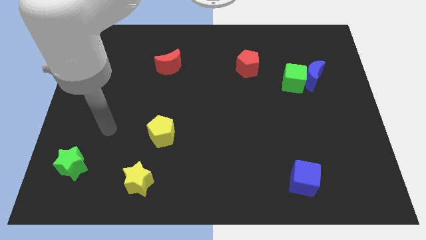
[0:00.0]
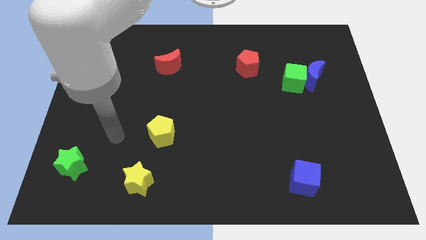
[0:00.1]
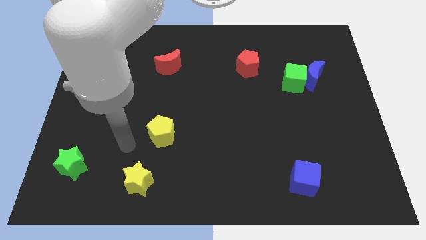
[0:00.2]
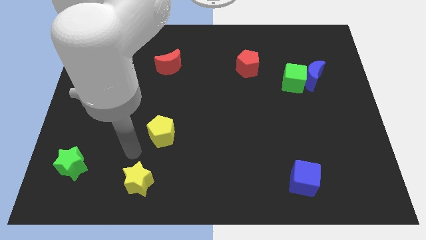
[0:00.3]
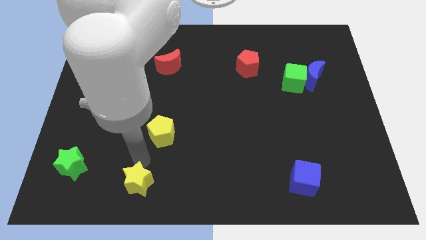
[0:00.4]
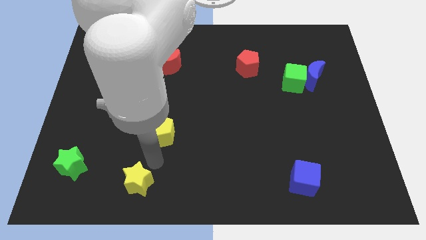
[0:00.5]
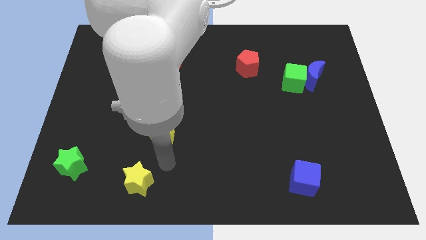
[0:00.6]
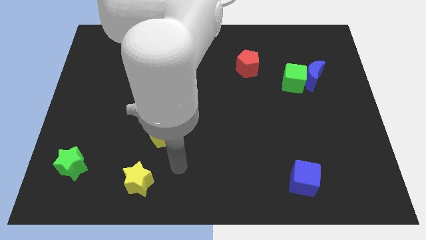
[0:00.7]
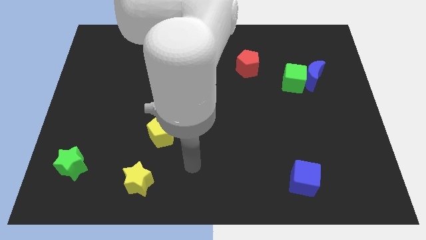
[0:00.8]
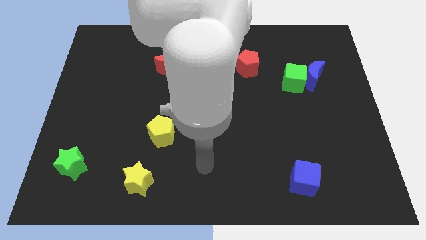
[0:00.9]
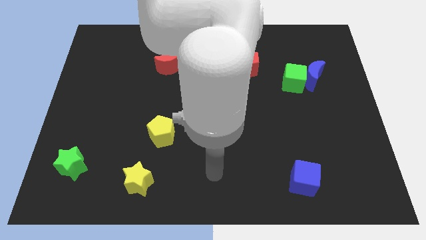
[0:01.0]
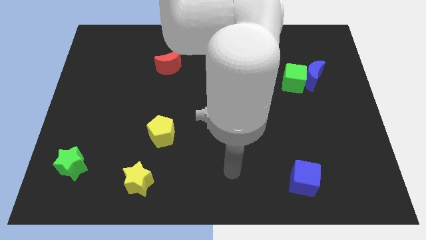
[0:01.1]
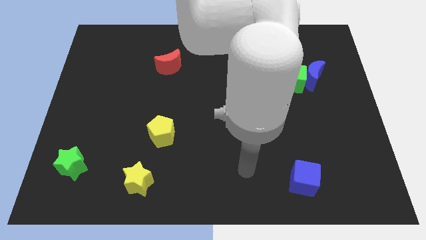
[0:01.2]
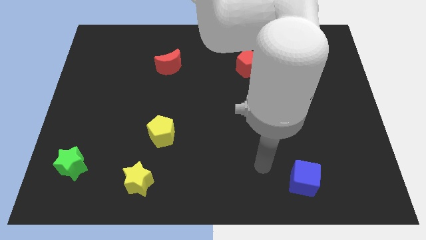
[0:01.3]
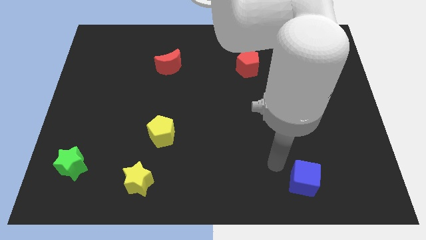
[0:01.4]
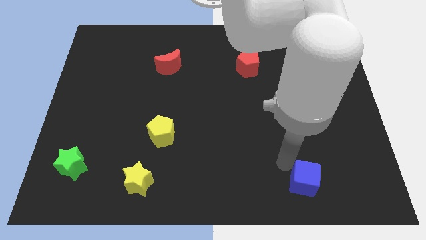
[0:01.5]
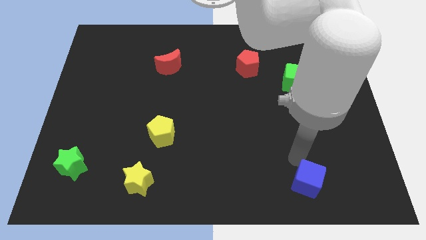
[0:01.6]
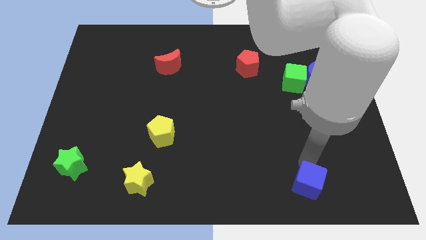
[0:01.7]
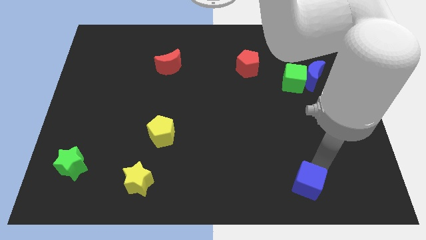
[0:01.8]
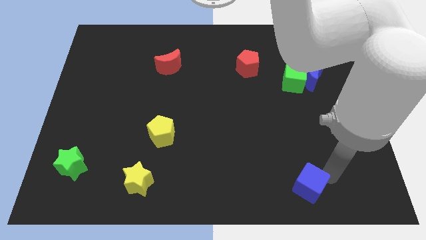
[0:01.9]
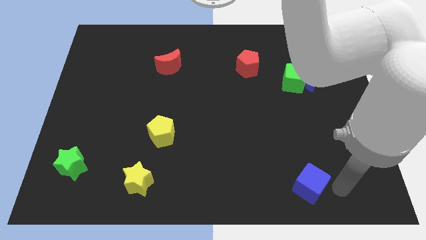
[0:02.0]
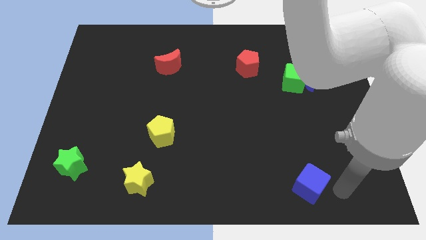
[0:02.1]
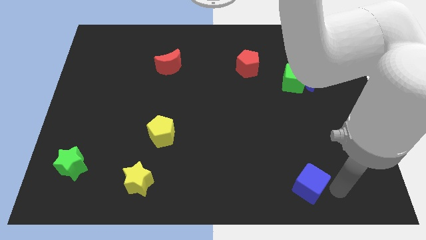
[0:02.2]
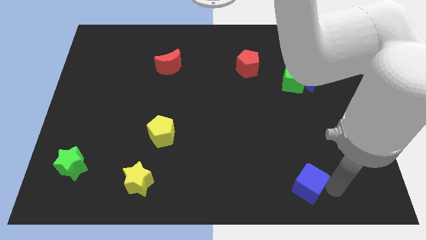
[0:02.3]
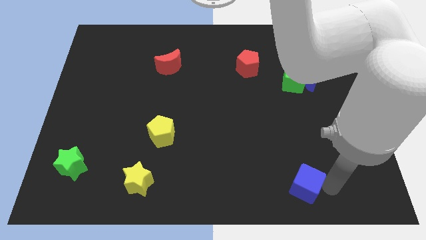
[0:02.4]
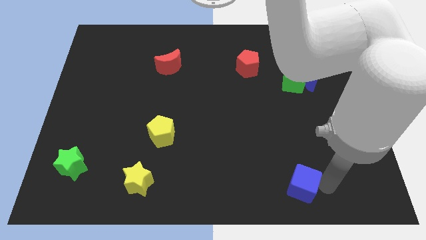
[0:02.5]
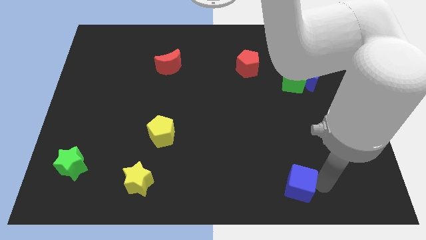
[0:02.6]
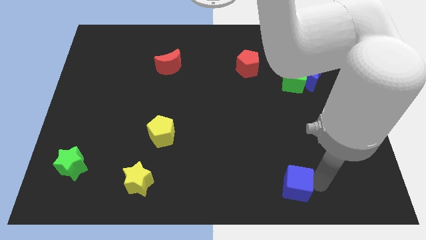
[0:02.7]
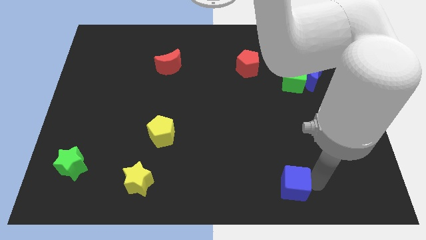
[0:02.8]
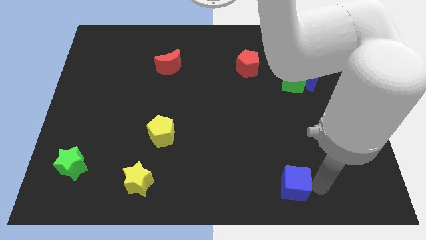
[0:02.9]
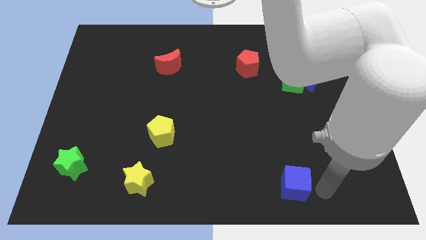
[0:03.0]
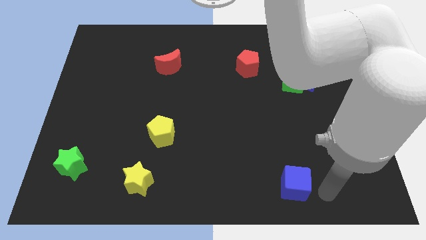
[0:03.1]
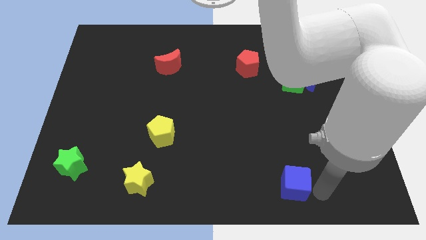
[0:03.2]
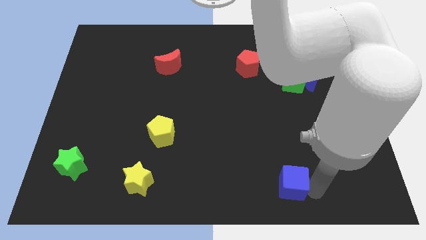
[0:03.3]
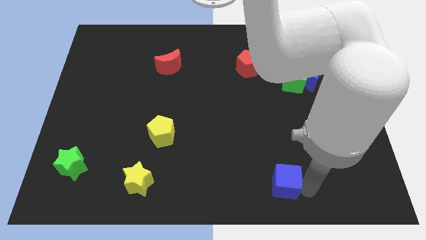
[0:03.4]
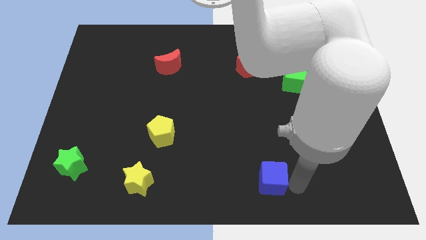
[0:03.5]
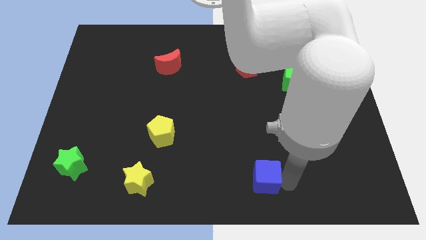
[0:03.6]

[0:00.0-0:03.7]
slightly slide the blue cube left

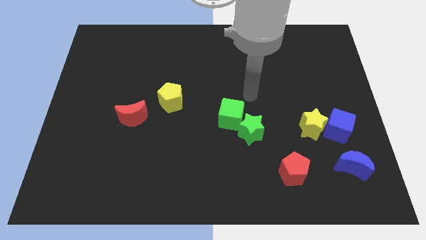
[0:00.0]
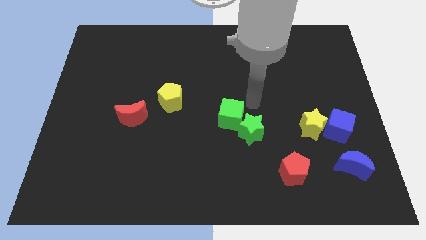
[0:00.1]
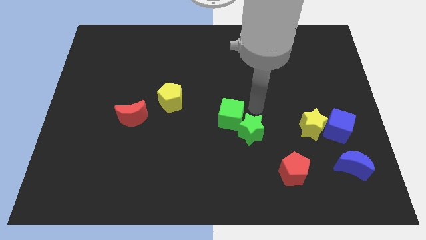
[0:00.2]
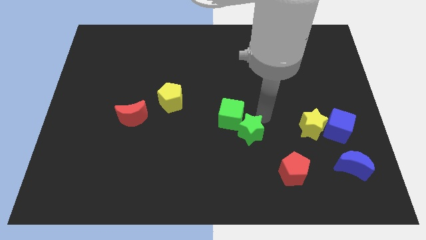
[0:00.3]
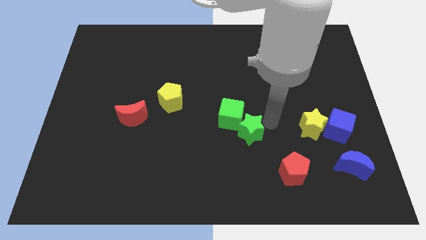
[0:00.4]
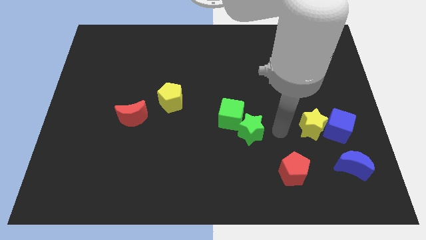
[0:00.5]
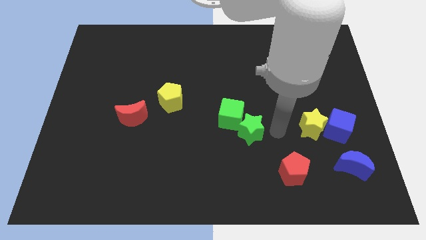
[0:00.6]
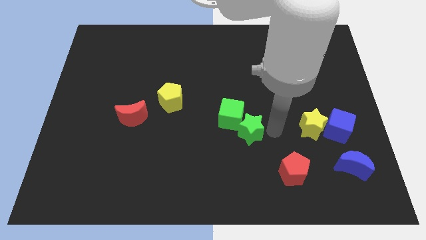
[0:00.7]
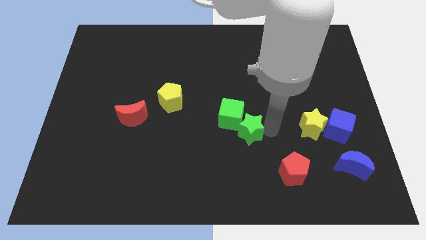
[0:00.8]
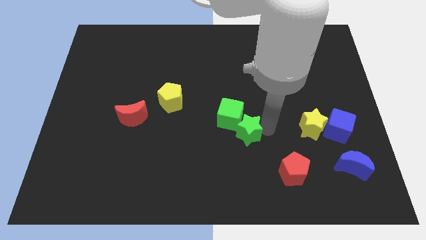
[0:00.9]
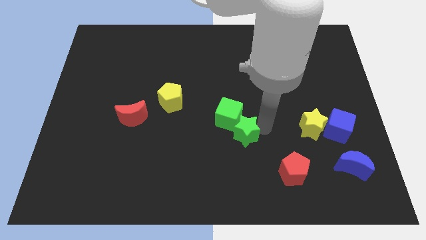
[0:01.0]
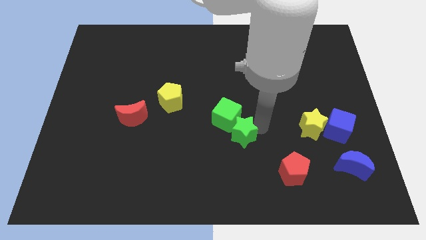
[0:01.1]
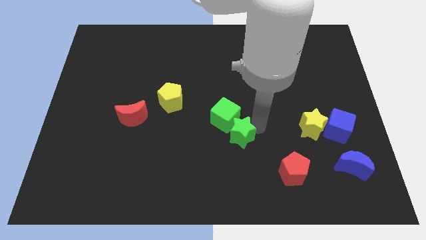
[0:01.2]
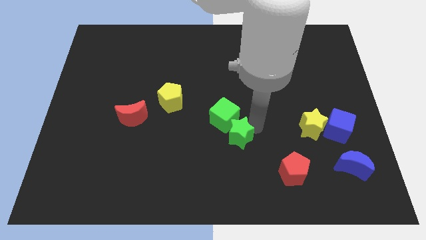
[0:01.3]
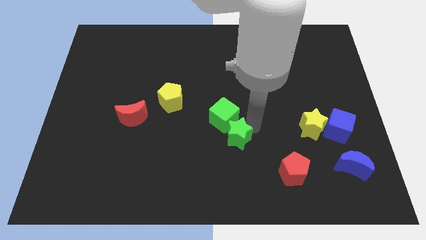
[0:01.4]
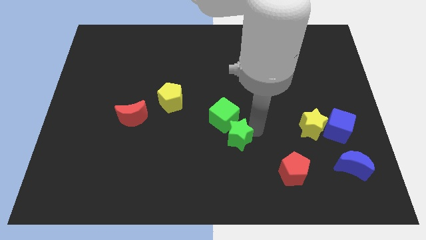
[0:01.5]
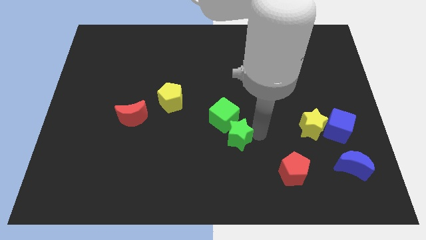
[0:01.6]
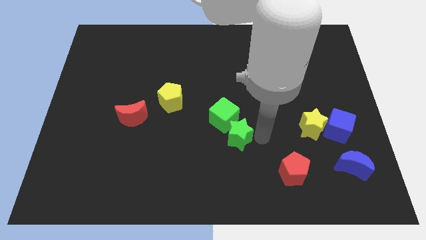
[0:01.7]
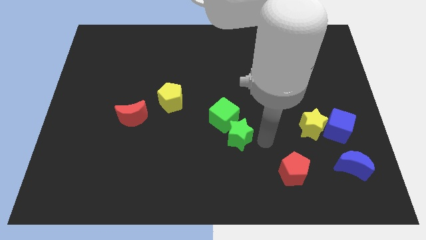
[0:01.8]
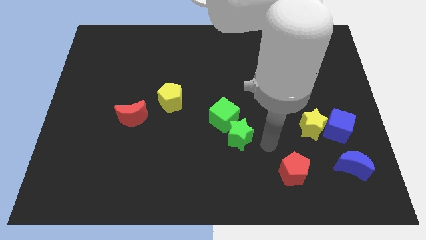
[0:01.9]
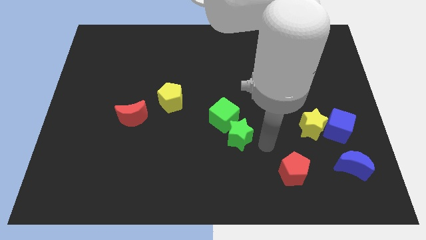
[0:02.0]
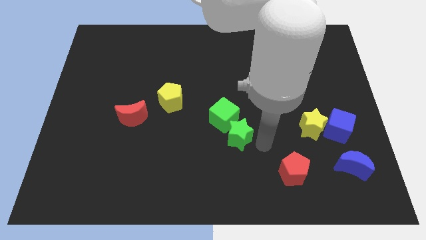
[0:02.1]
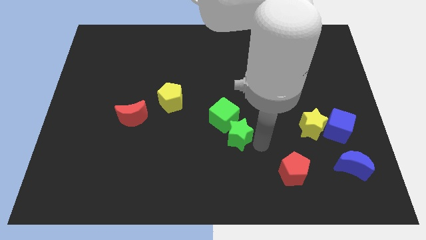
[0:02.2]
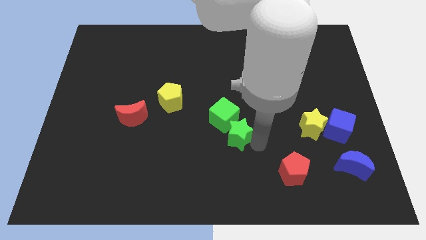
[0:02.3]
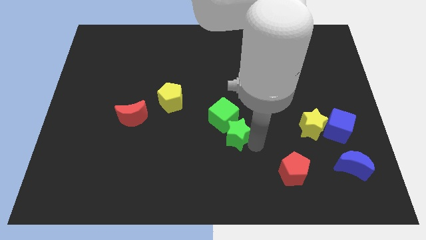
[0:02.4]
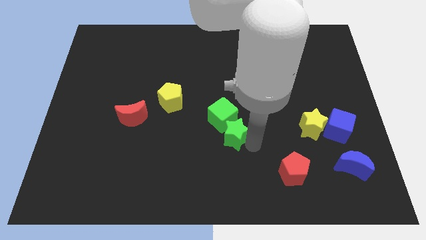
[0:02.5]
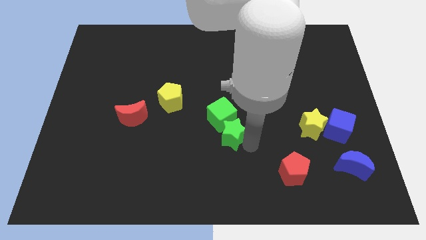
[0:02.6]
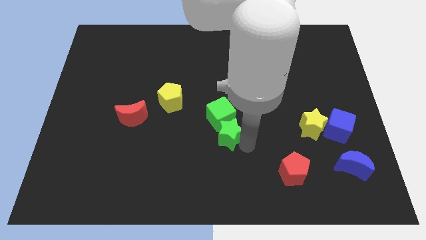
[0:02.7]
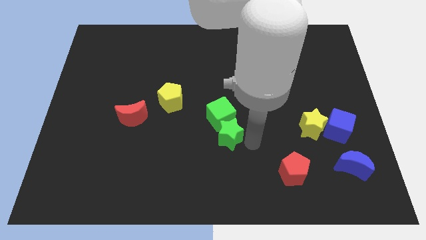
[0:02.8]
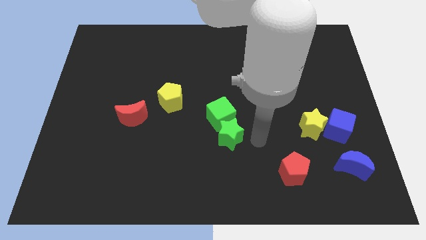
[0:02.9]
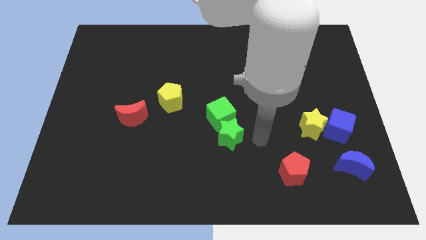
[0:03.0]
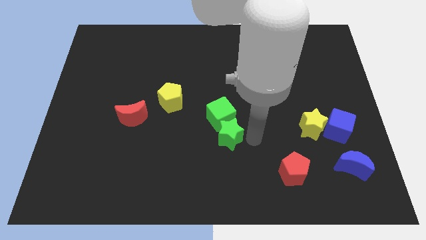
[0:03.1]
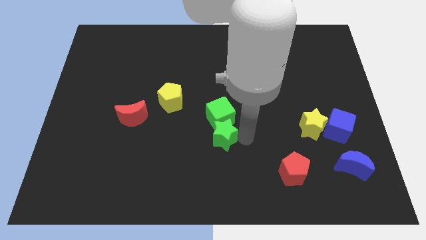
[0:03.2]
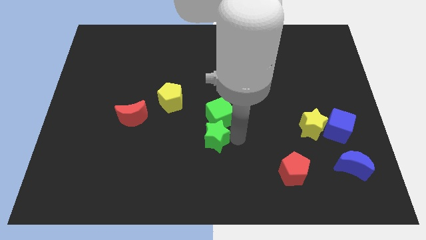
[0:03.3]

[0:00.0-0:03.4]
move the green star left slightly

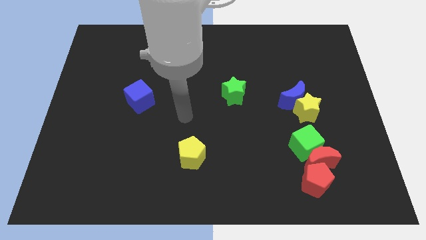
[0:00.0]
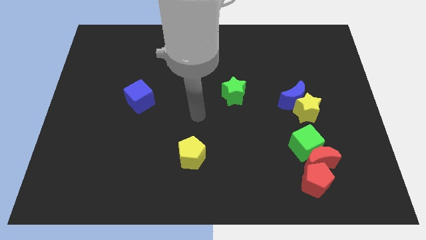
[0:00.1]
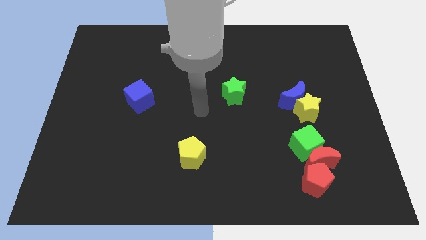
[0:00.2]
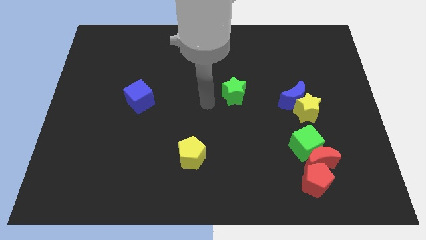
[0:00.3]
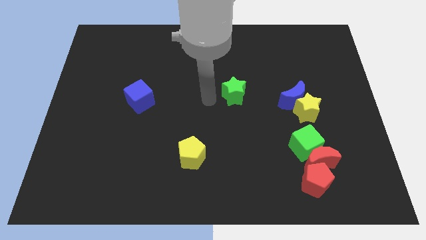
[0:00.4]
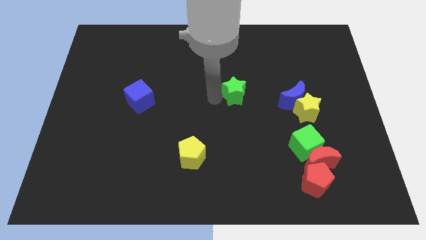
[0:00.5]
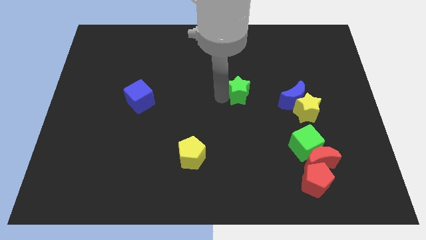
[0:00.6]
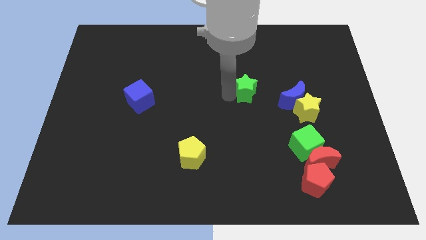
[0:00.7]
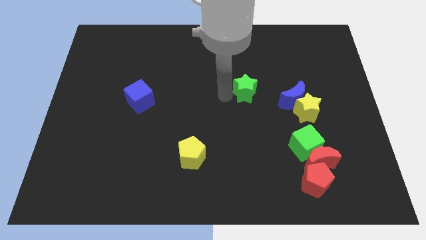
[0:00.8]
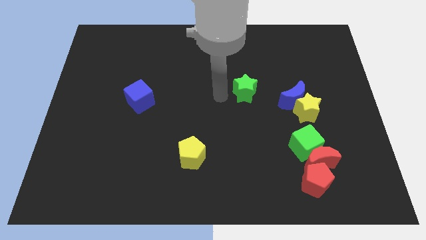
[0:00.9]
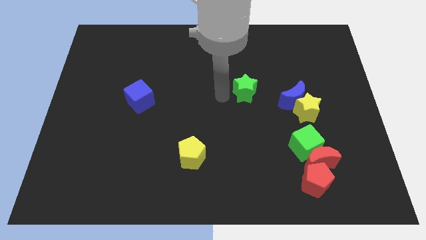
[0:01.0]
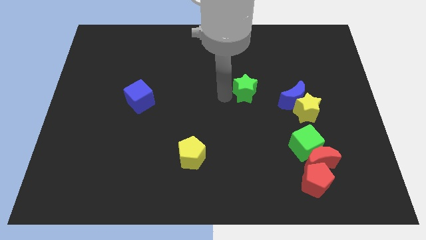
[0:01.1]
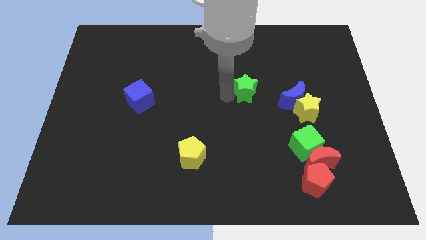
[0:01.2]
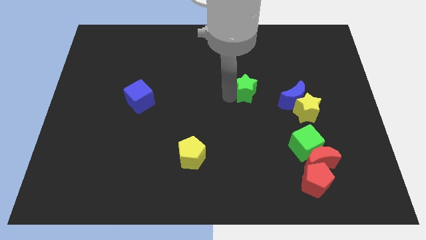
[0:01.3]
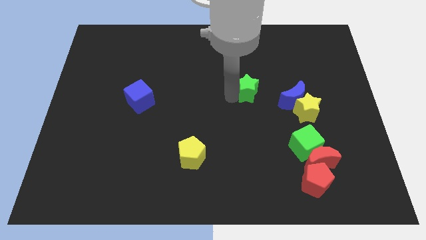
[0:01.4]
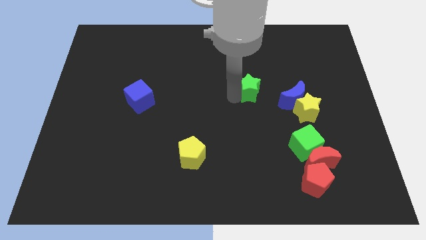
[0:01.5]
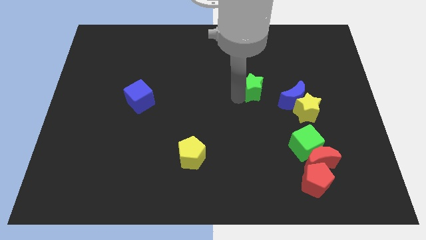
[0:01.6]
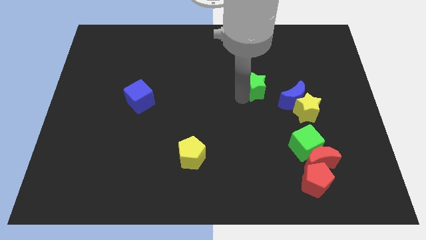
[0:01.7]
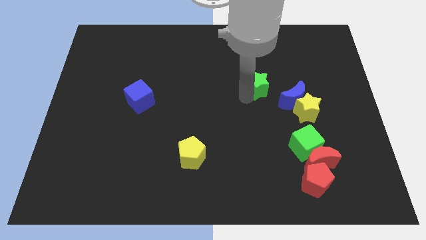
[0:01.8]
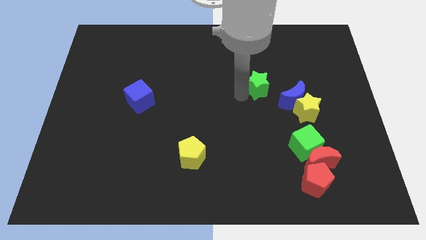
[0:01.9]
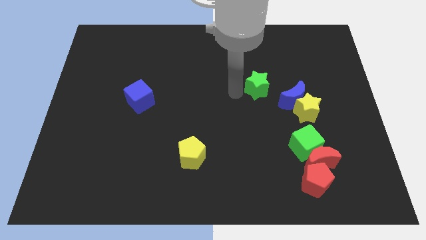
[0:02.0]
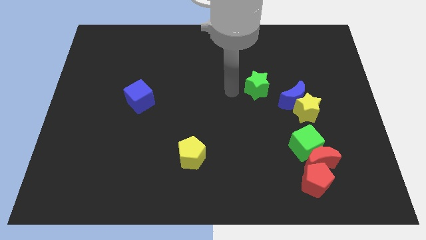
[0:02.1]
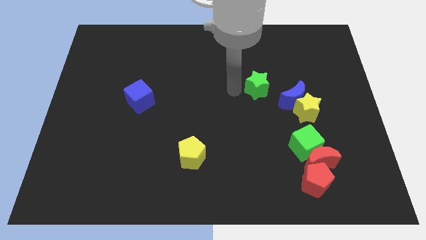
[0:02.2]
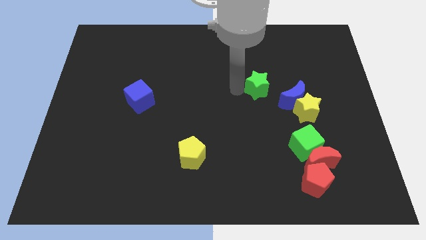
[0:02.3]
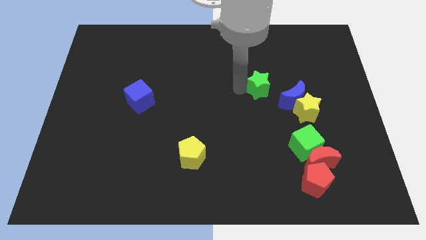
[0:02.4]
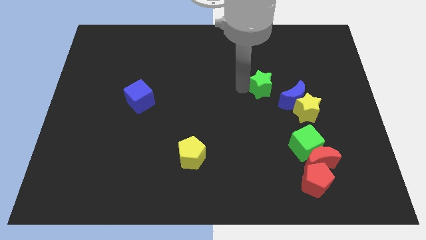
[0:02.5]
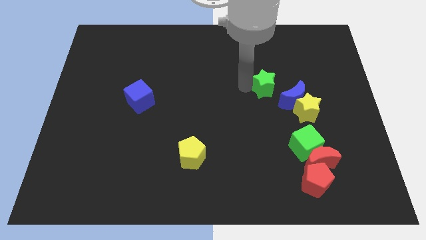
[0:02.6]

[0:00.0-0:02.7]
move the green star a little to the right
